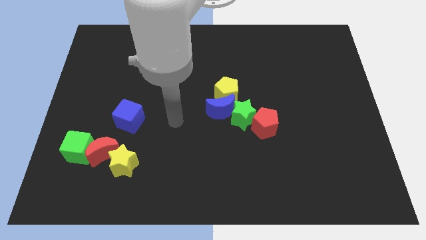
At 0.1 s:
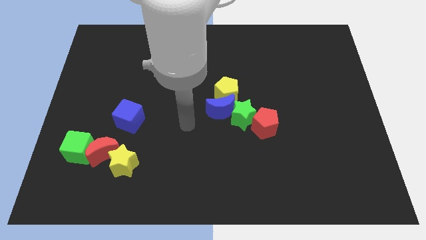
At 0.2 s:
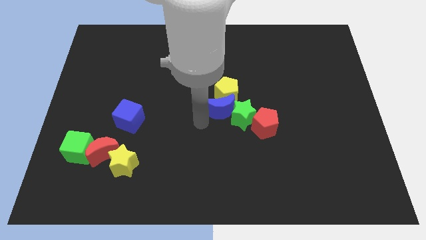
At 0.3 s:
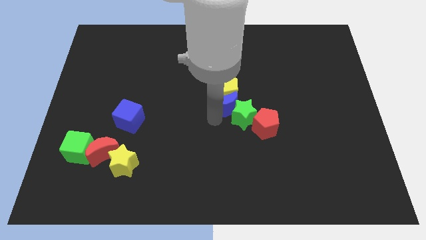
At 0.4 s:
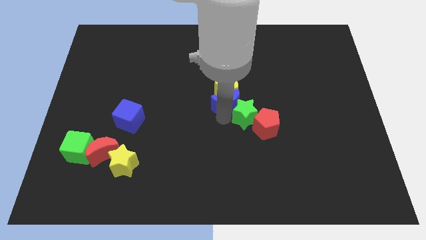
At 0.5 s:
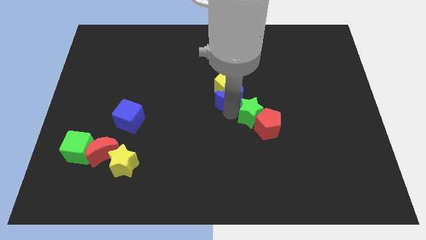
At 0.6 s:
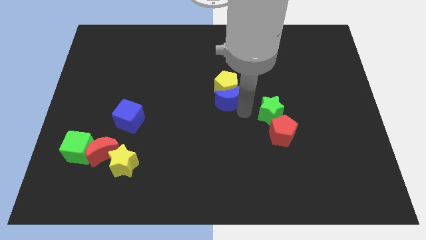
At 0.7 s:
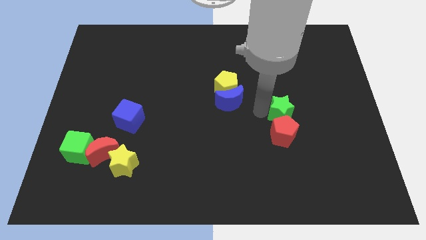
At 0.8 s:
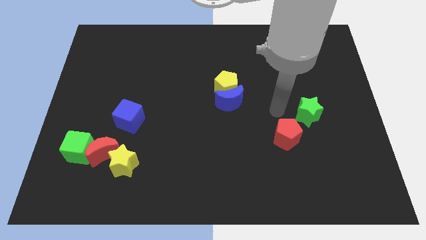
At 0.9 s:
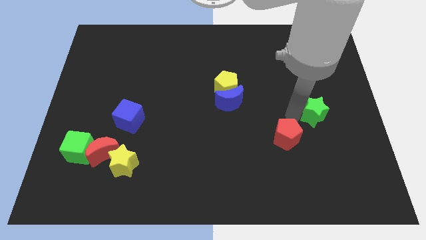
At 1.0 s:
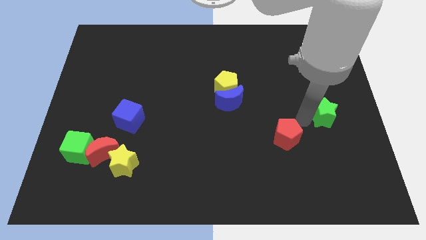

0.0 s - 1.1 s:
separate the red pentagon from the green star

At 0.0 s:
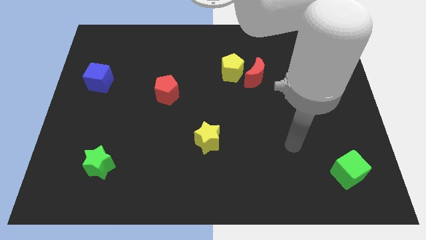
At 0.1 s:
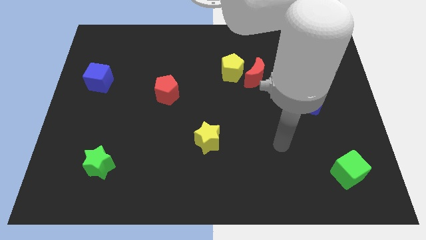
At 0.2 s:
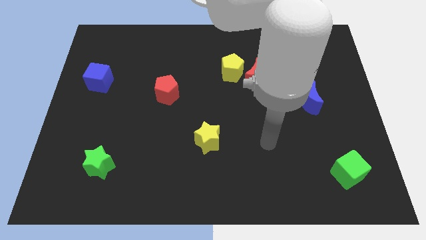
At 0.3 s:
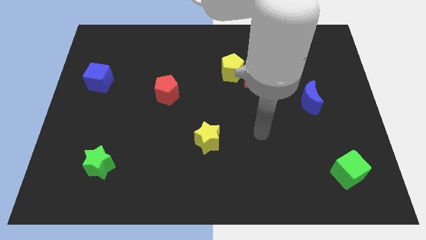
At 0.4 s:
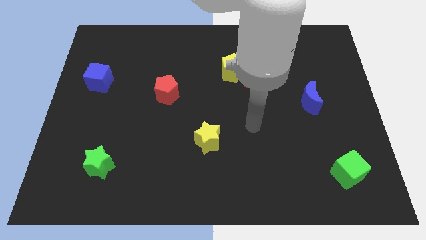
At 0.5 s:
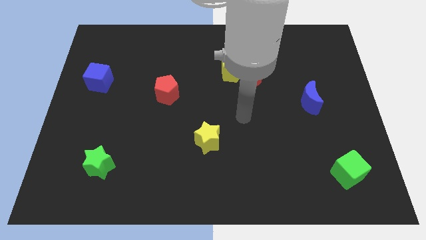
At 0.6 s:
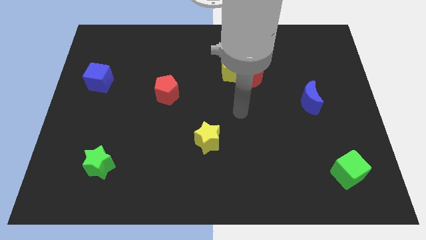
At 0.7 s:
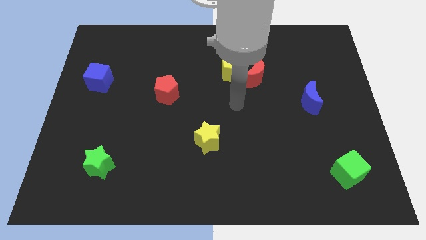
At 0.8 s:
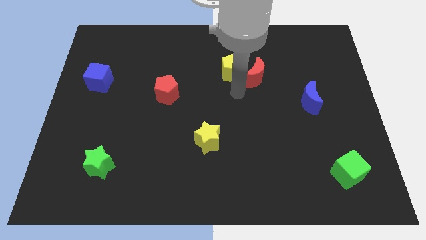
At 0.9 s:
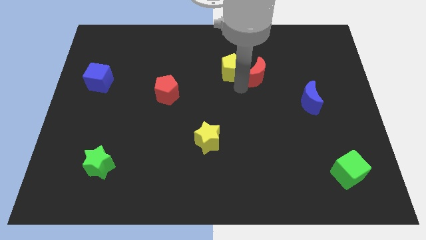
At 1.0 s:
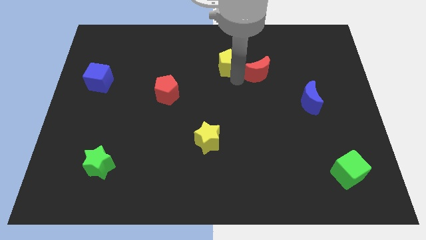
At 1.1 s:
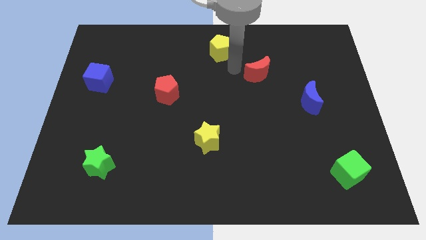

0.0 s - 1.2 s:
move the red moon away from the yellow pentagon

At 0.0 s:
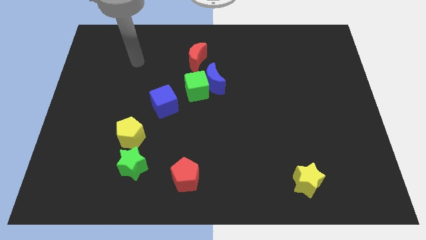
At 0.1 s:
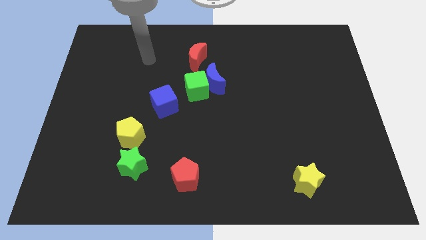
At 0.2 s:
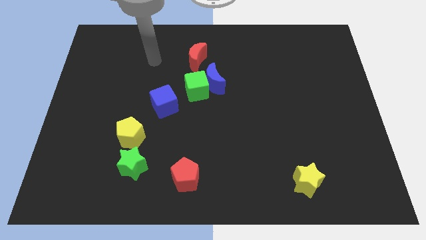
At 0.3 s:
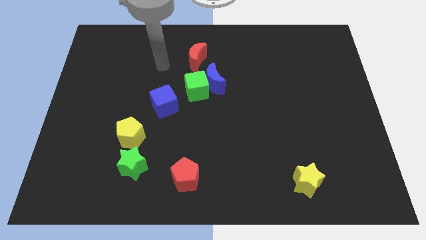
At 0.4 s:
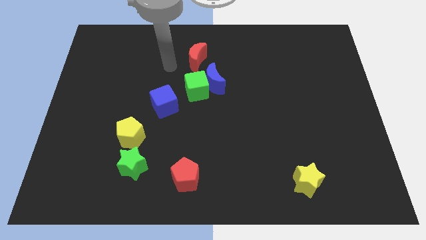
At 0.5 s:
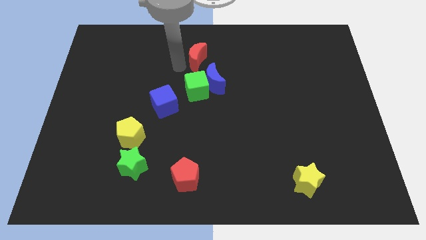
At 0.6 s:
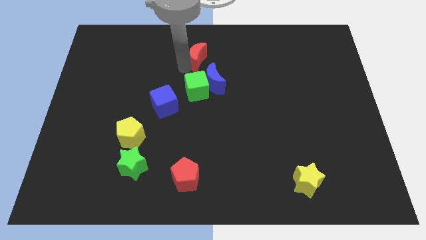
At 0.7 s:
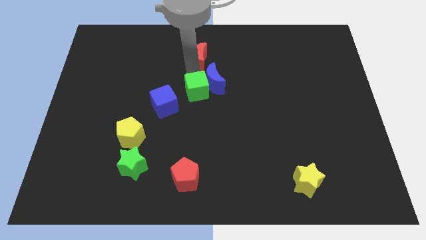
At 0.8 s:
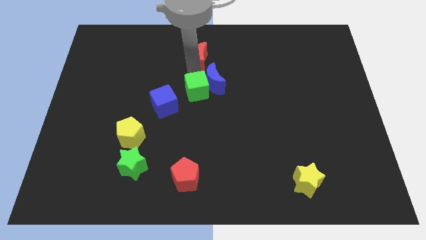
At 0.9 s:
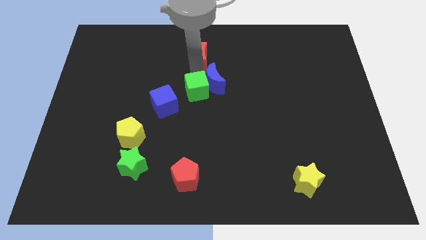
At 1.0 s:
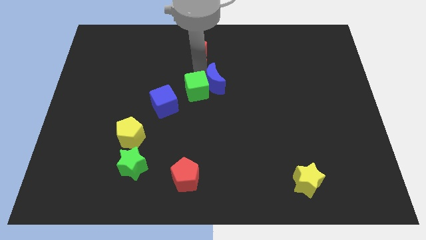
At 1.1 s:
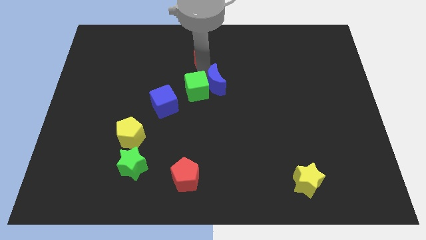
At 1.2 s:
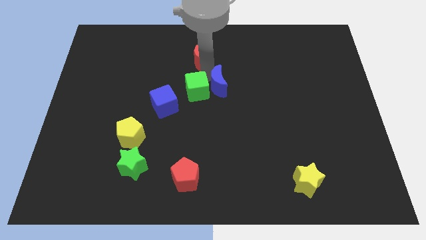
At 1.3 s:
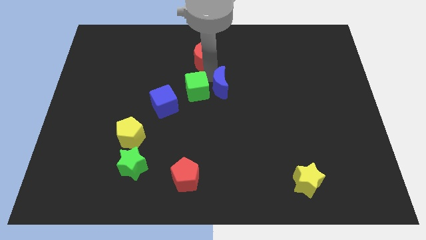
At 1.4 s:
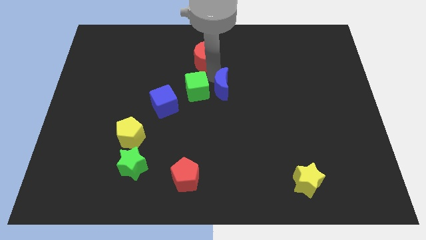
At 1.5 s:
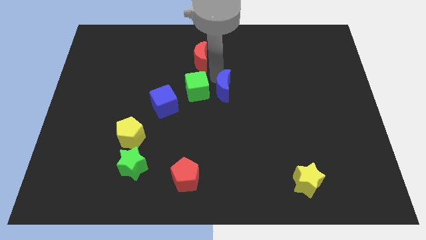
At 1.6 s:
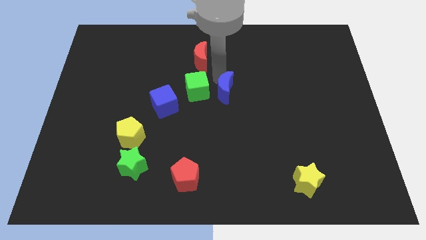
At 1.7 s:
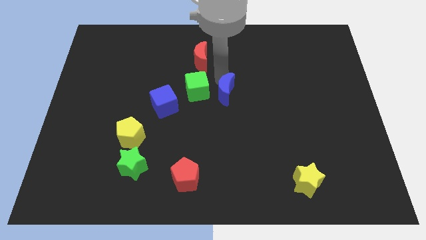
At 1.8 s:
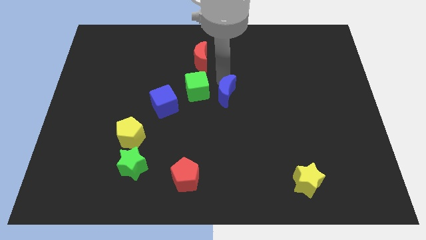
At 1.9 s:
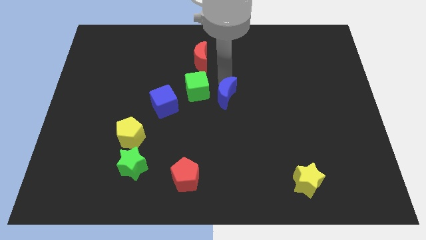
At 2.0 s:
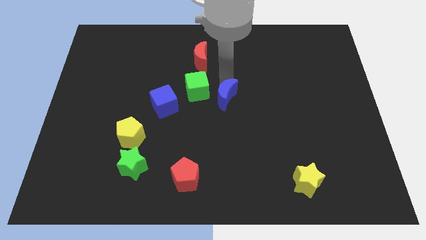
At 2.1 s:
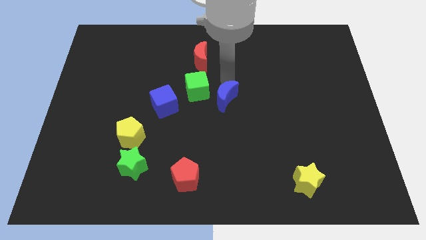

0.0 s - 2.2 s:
move the blue moon away from the green cube and red moon

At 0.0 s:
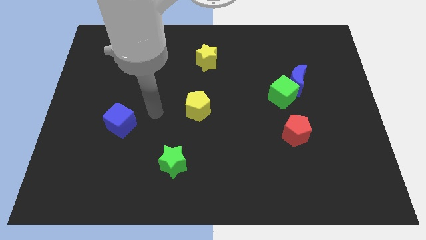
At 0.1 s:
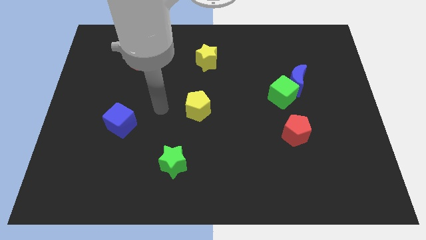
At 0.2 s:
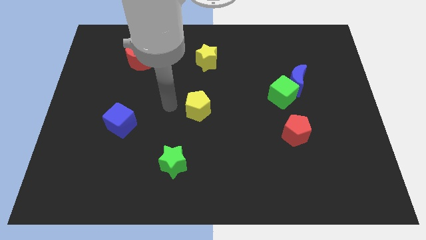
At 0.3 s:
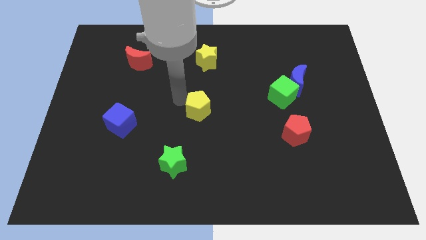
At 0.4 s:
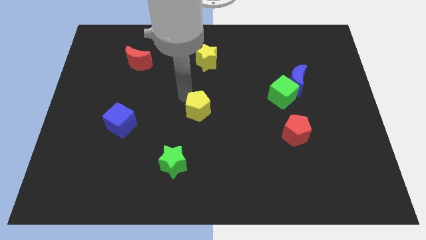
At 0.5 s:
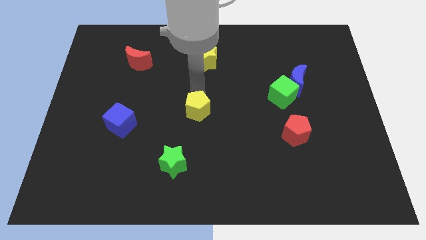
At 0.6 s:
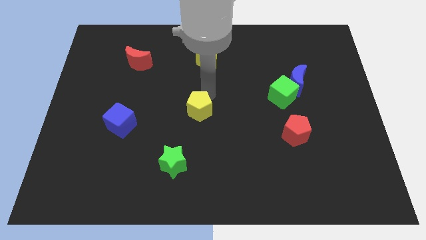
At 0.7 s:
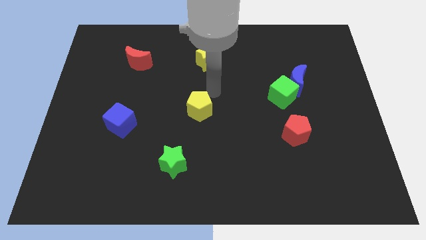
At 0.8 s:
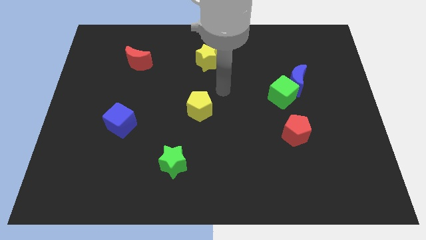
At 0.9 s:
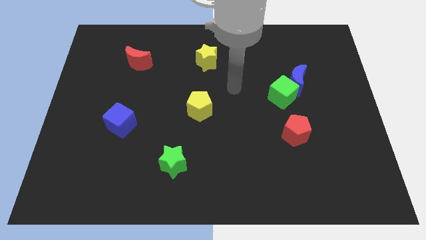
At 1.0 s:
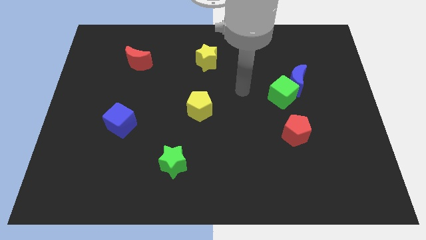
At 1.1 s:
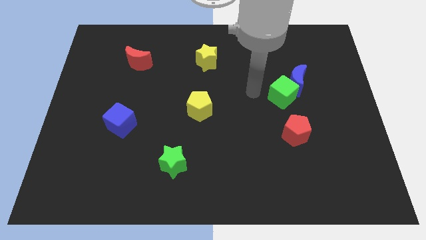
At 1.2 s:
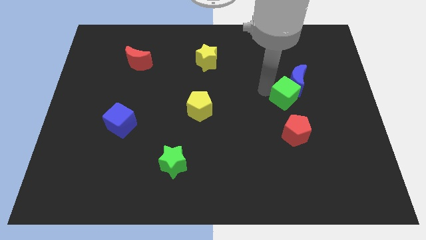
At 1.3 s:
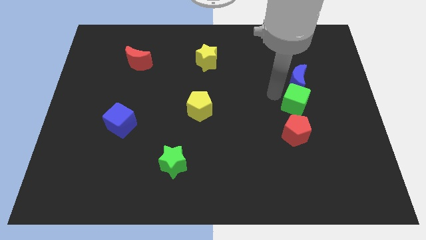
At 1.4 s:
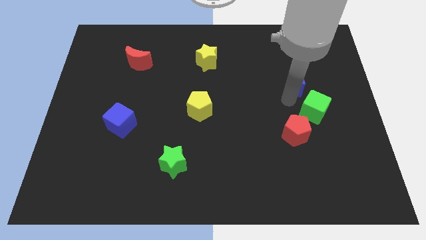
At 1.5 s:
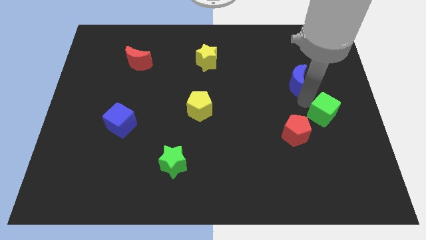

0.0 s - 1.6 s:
separate the blue moon from the green cube

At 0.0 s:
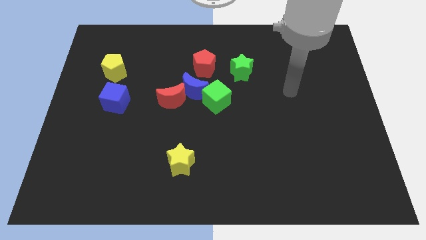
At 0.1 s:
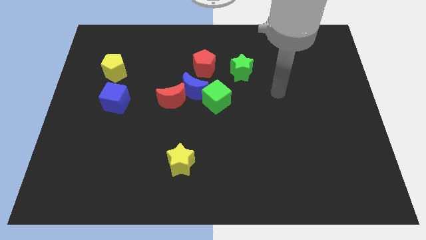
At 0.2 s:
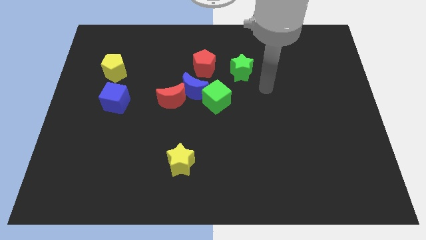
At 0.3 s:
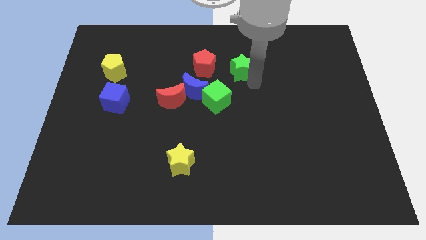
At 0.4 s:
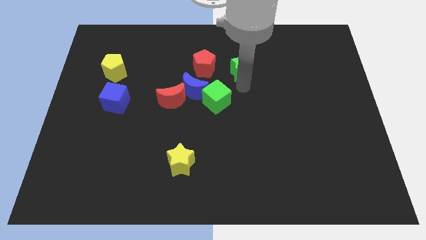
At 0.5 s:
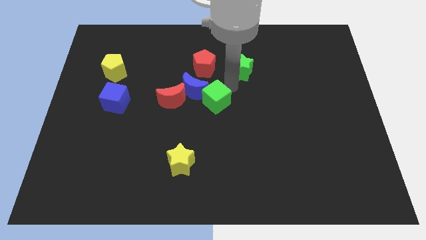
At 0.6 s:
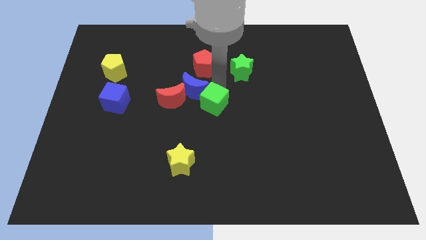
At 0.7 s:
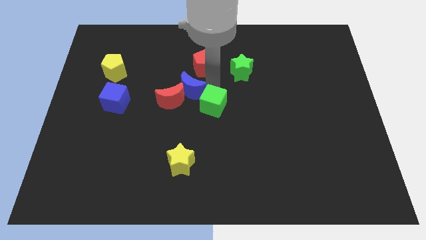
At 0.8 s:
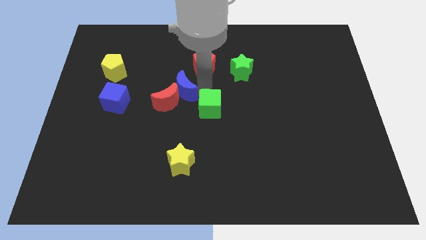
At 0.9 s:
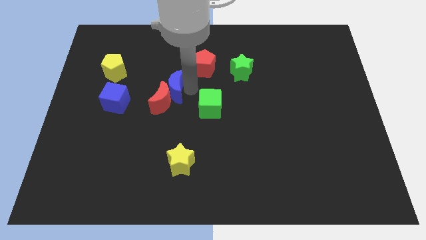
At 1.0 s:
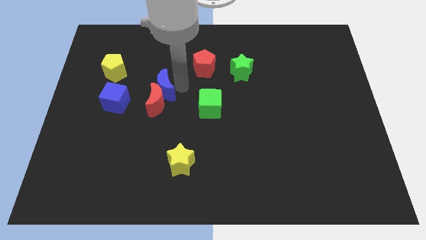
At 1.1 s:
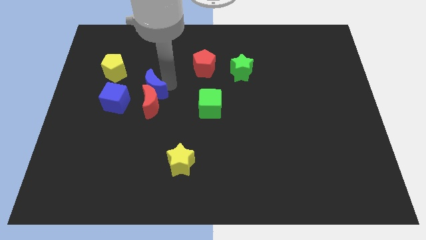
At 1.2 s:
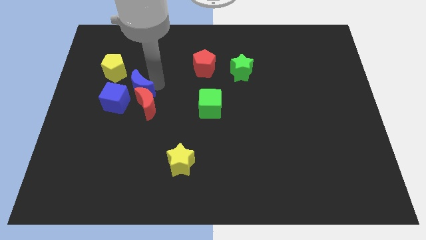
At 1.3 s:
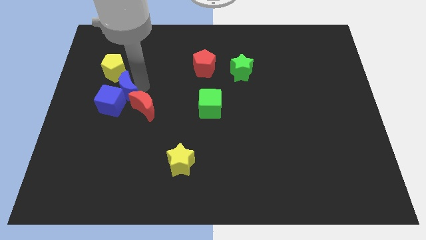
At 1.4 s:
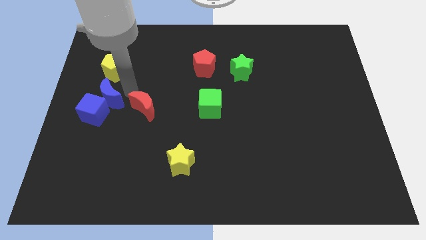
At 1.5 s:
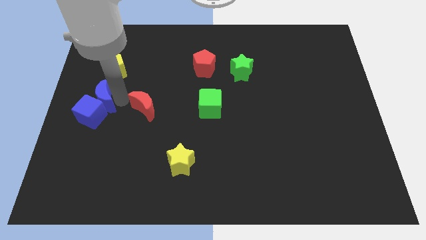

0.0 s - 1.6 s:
move the red moon away from the blue moon

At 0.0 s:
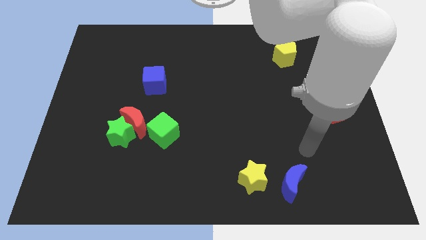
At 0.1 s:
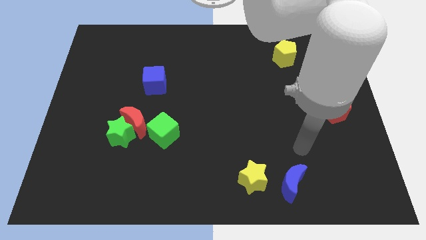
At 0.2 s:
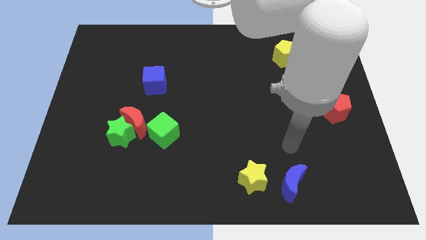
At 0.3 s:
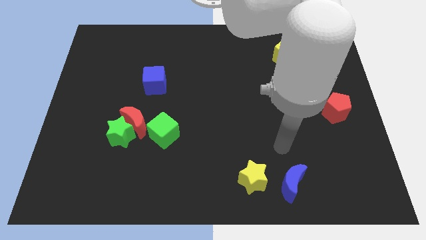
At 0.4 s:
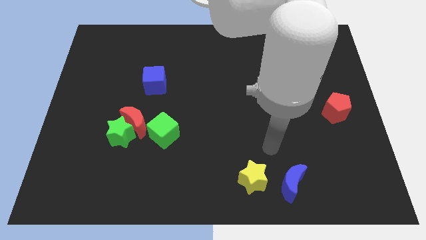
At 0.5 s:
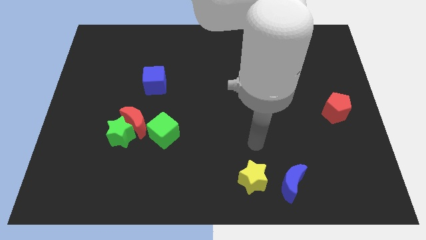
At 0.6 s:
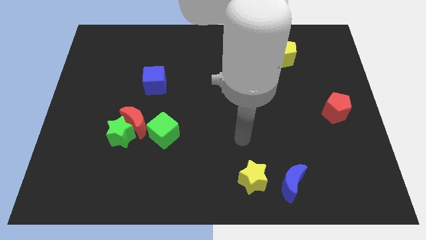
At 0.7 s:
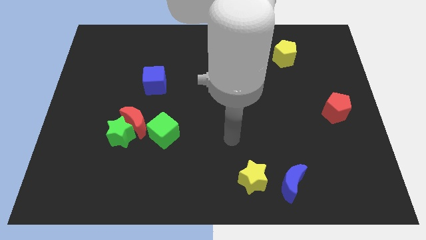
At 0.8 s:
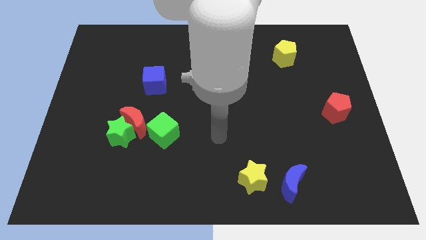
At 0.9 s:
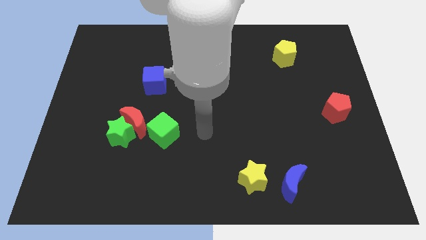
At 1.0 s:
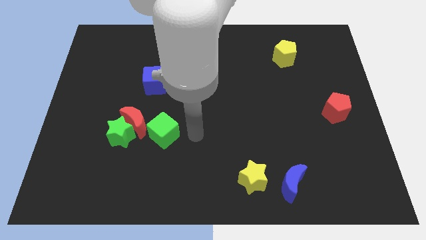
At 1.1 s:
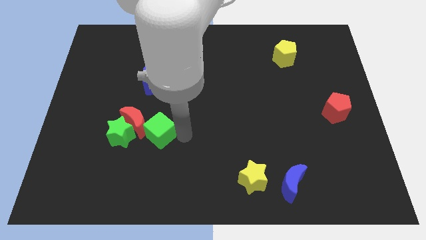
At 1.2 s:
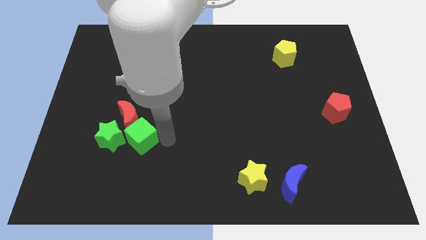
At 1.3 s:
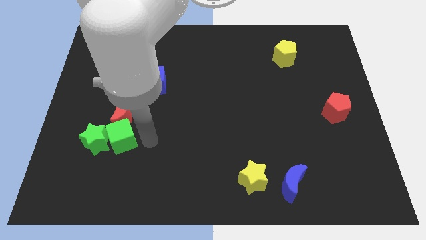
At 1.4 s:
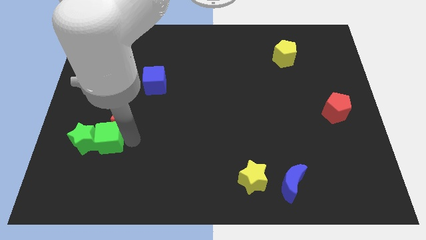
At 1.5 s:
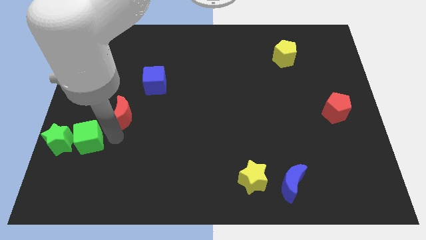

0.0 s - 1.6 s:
pull the red moon apart from the green star and green cube

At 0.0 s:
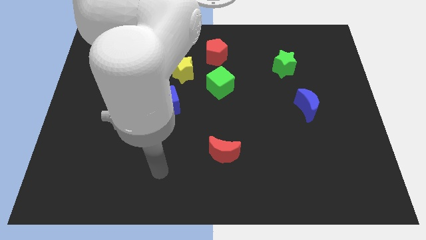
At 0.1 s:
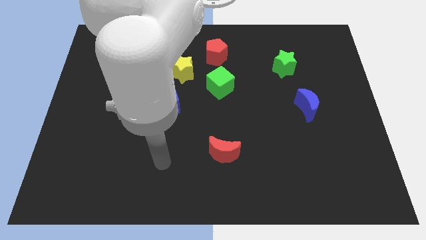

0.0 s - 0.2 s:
move the green cube away from the yellow star
